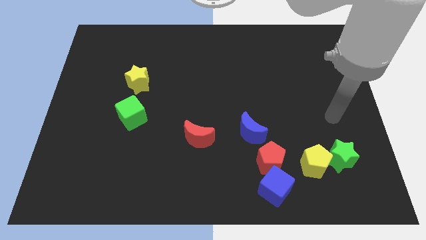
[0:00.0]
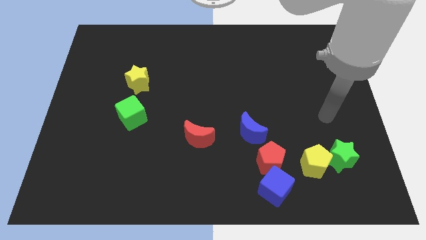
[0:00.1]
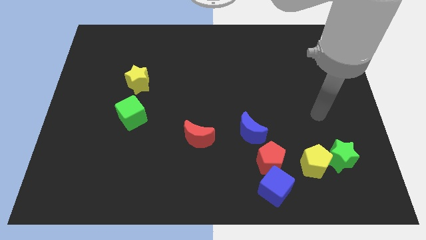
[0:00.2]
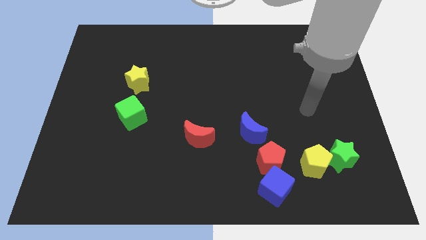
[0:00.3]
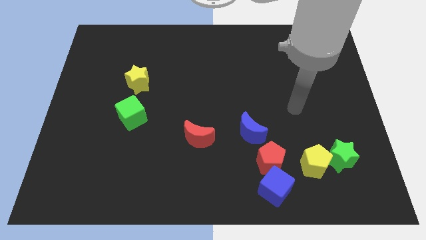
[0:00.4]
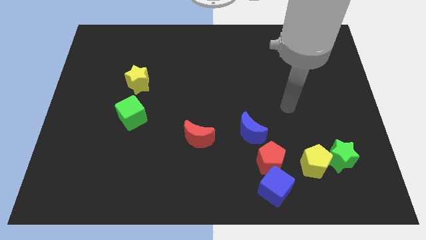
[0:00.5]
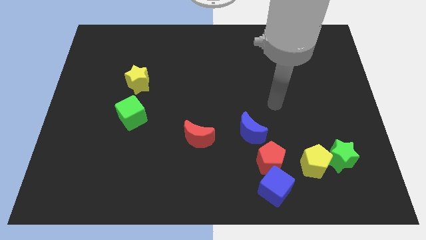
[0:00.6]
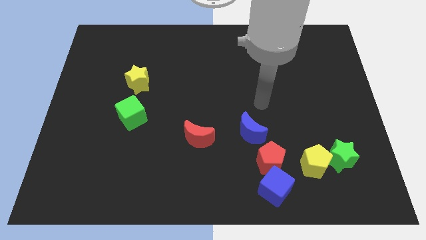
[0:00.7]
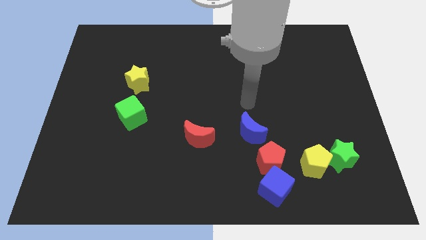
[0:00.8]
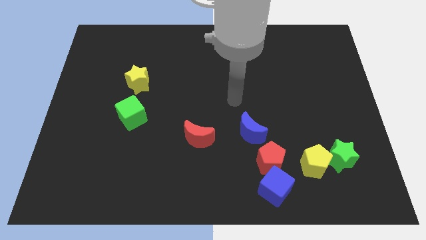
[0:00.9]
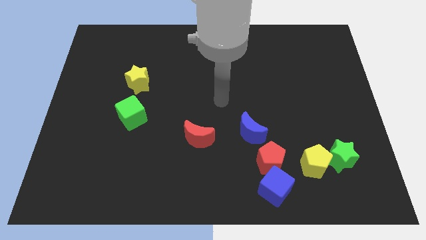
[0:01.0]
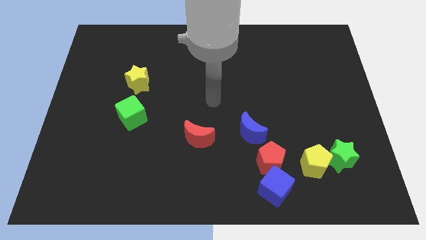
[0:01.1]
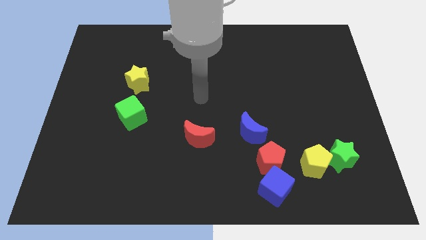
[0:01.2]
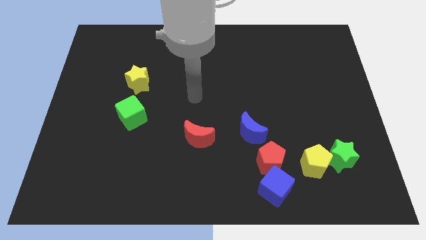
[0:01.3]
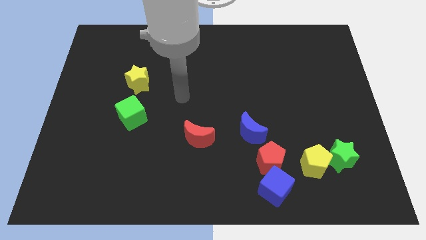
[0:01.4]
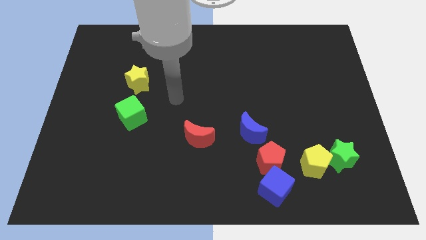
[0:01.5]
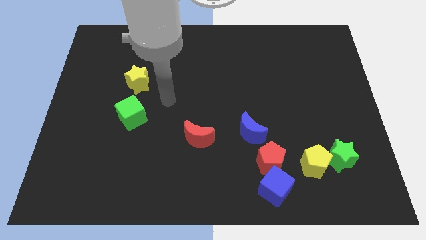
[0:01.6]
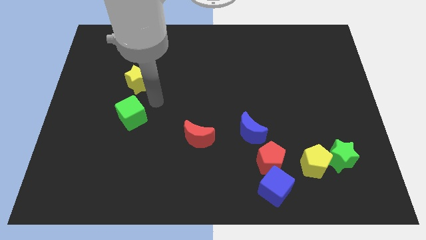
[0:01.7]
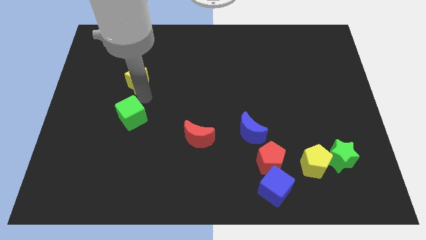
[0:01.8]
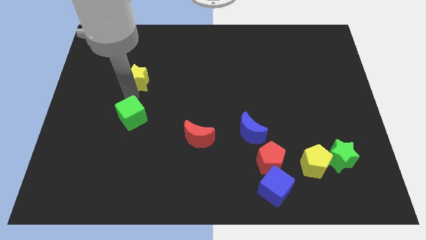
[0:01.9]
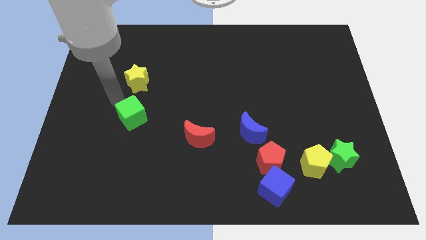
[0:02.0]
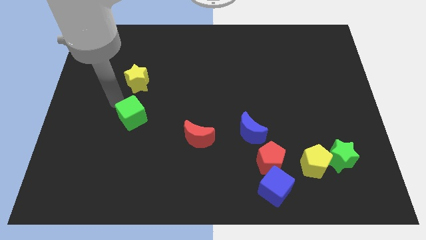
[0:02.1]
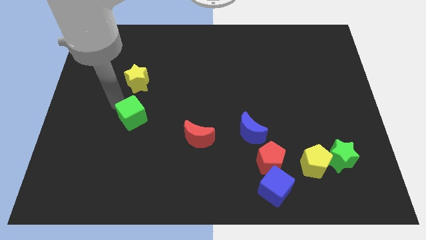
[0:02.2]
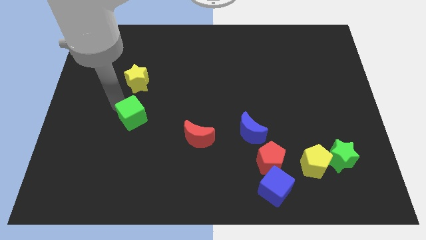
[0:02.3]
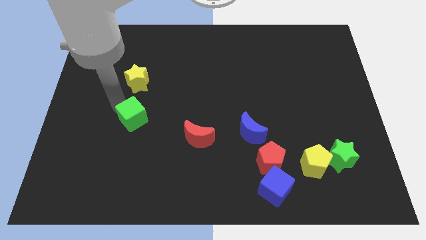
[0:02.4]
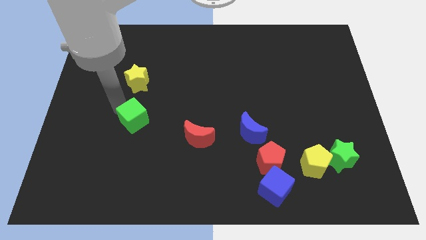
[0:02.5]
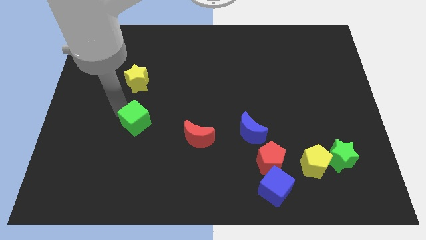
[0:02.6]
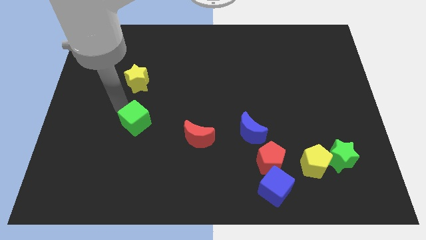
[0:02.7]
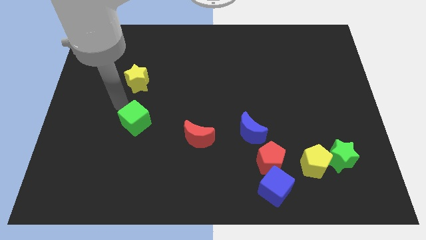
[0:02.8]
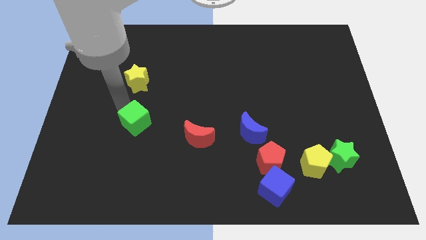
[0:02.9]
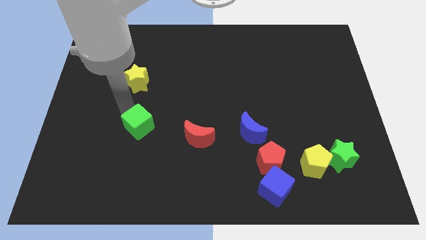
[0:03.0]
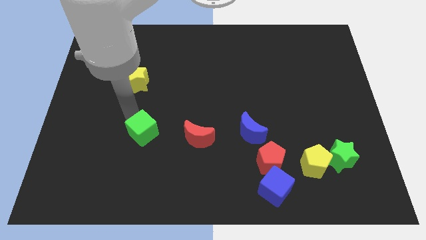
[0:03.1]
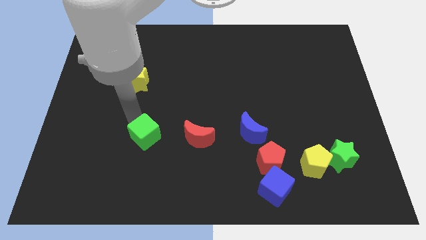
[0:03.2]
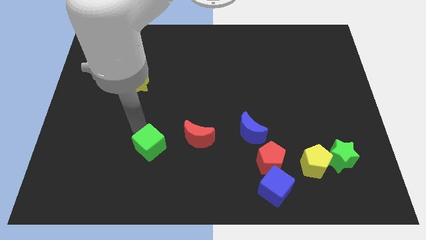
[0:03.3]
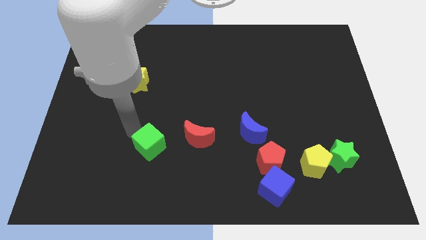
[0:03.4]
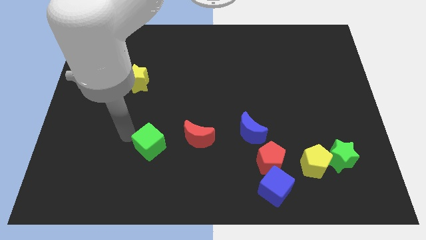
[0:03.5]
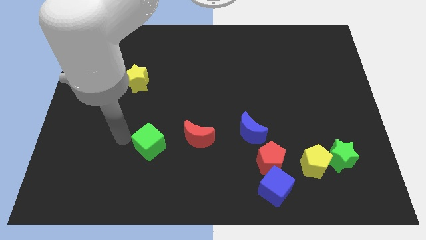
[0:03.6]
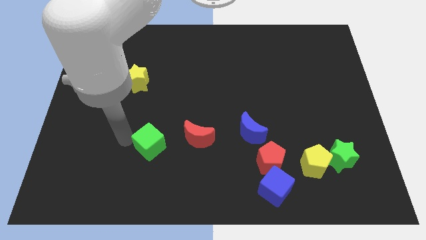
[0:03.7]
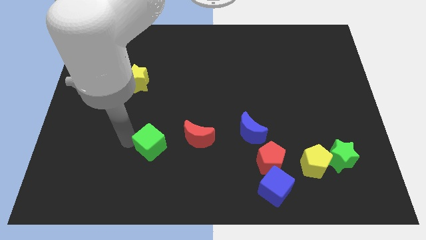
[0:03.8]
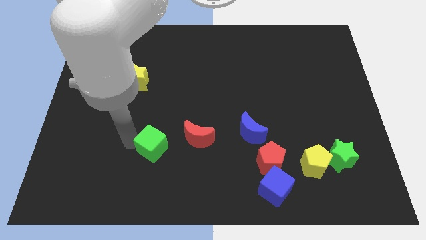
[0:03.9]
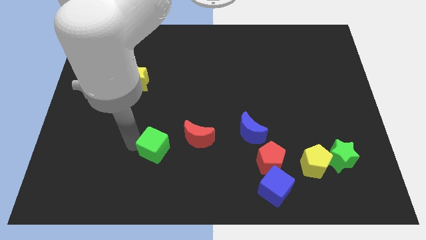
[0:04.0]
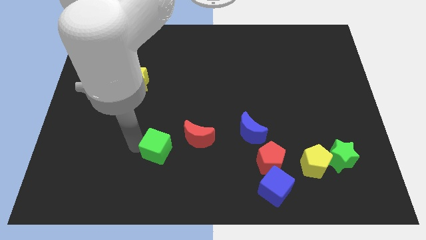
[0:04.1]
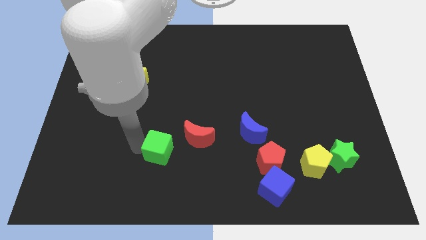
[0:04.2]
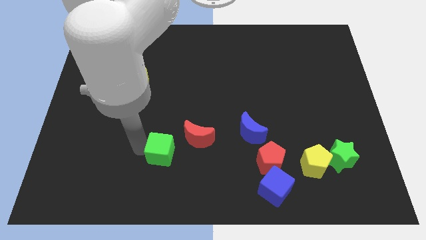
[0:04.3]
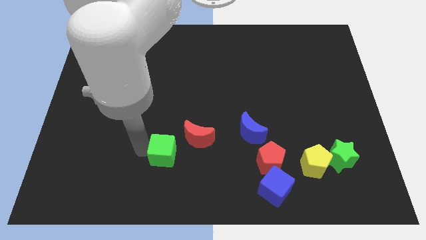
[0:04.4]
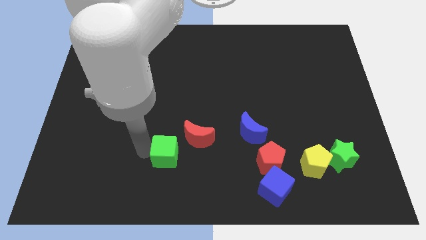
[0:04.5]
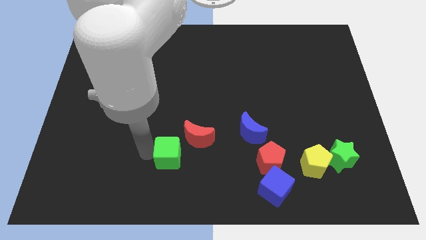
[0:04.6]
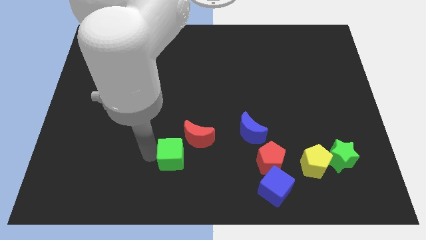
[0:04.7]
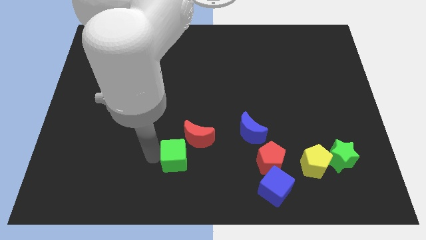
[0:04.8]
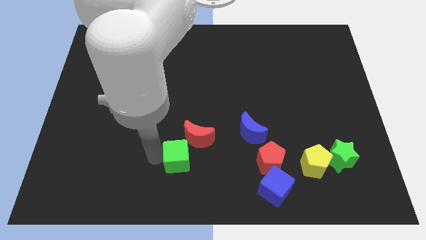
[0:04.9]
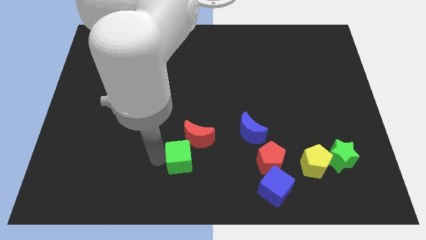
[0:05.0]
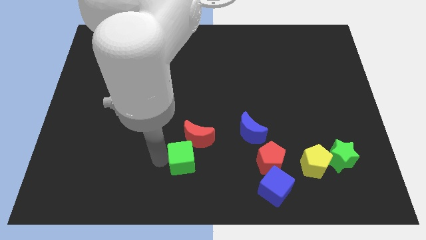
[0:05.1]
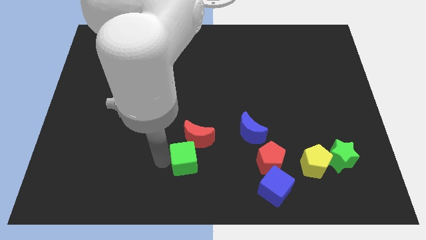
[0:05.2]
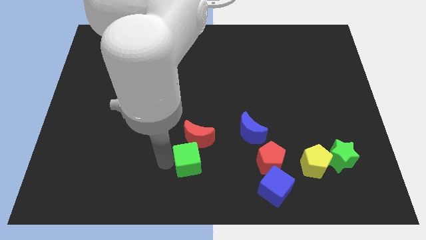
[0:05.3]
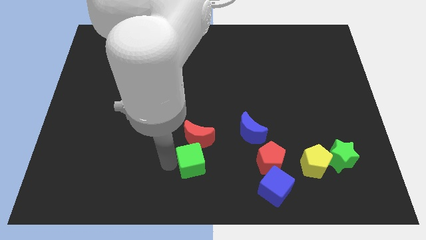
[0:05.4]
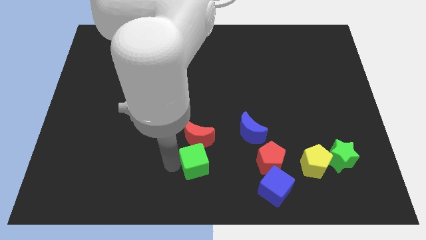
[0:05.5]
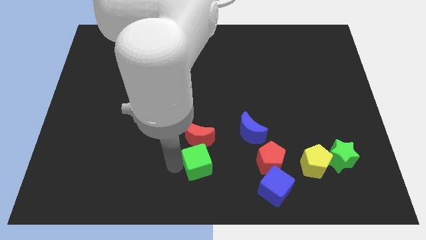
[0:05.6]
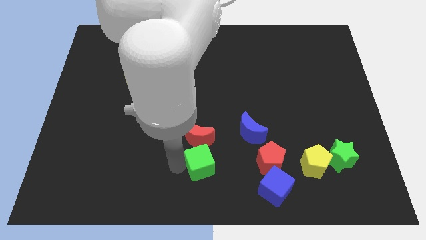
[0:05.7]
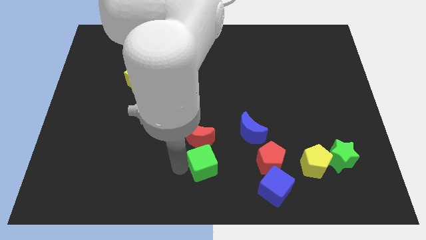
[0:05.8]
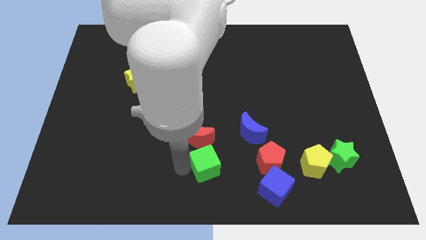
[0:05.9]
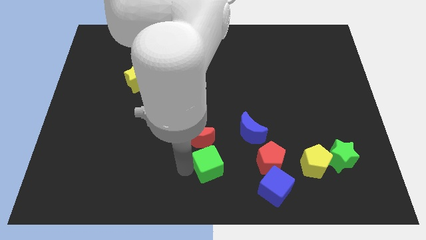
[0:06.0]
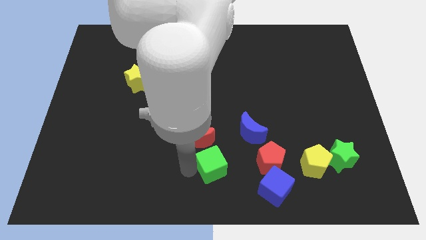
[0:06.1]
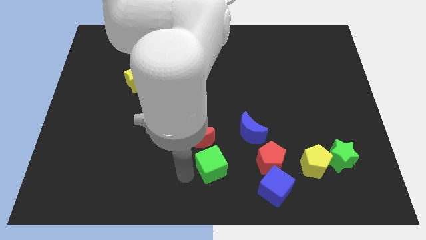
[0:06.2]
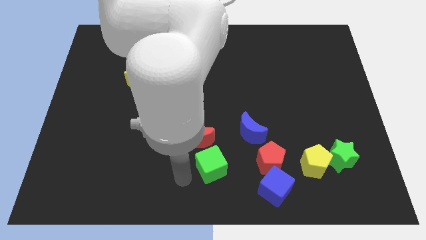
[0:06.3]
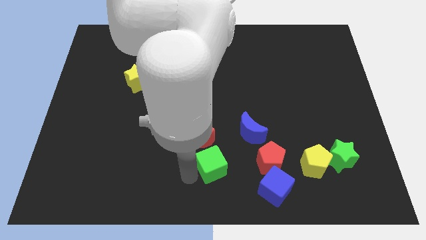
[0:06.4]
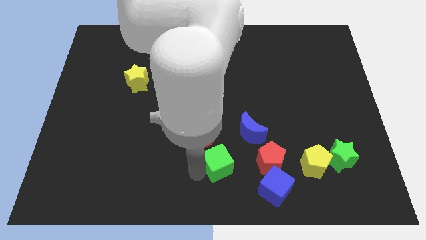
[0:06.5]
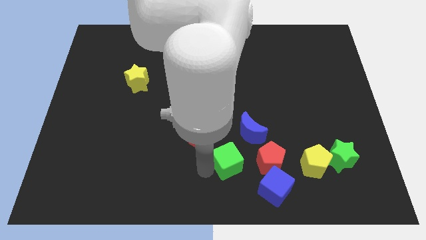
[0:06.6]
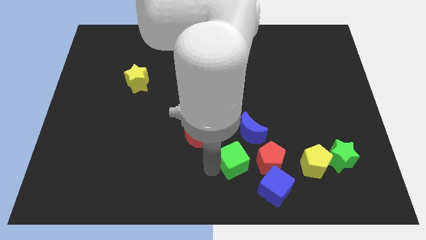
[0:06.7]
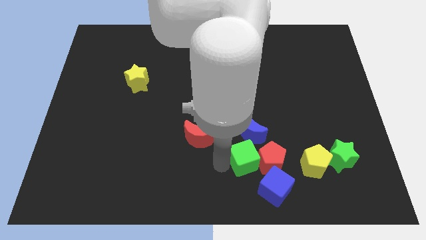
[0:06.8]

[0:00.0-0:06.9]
slide the green cube towards the red pentagon

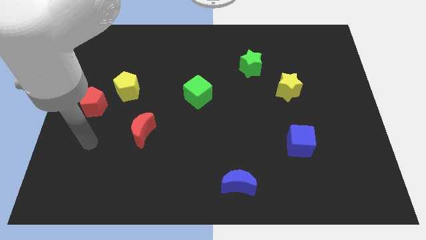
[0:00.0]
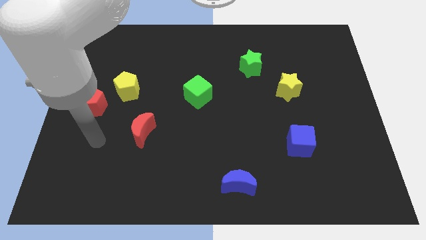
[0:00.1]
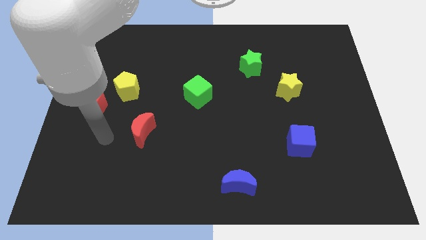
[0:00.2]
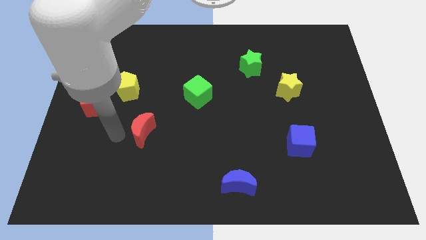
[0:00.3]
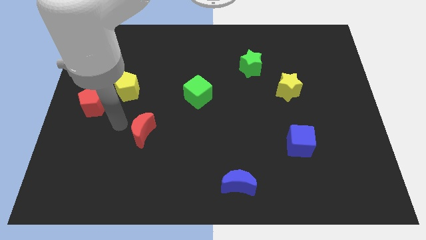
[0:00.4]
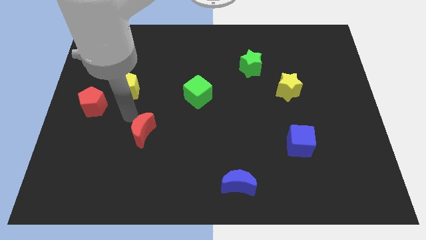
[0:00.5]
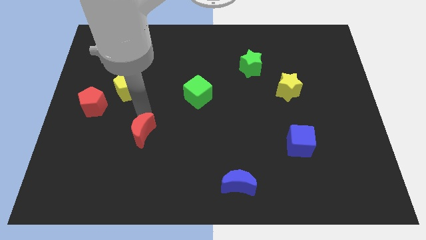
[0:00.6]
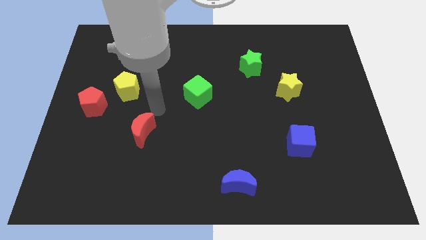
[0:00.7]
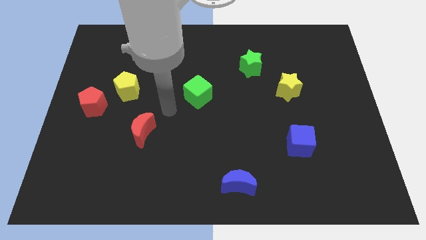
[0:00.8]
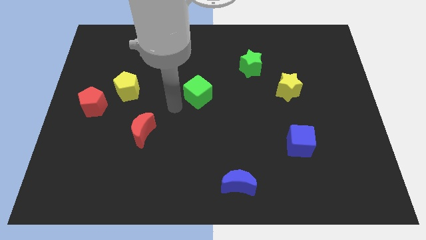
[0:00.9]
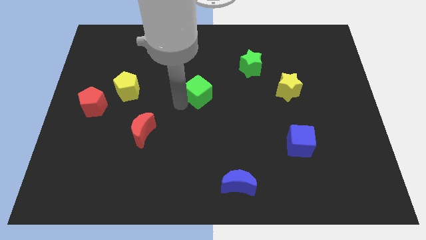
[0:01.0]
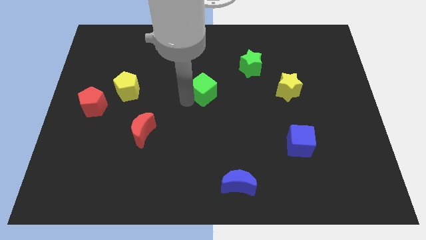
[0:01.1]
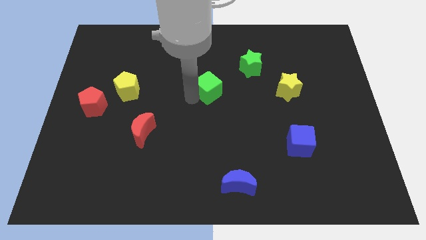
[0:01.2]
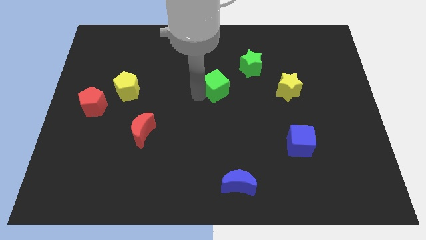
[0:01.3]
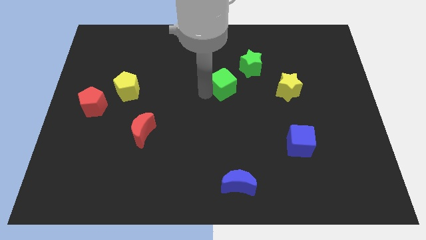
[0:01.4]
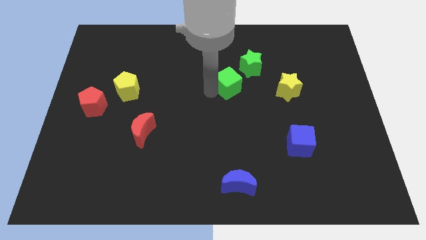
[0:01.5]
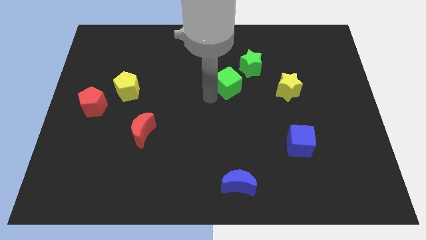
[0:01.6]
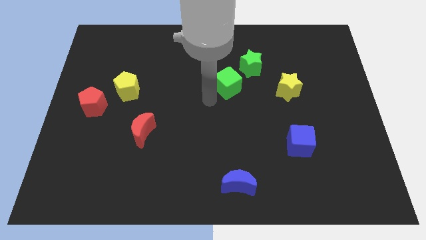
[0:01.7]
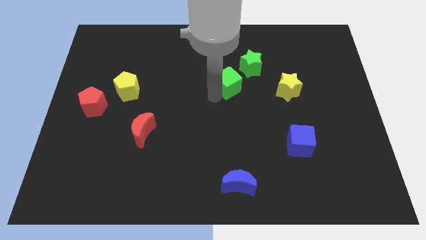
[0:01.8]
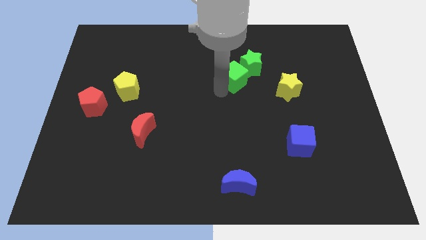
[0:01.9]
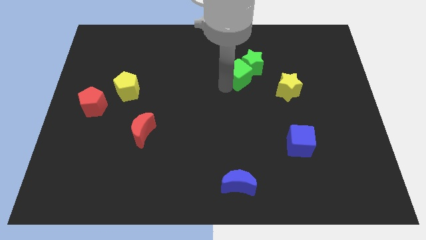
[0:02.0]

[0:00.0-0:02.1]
put the green cube close to the green star
